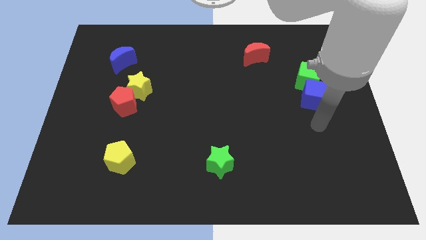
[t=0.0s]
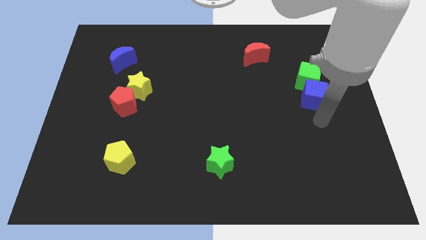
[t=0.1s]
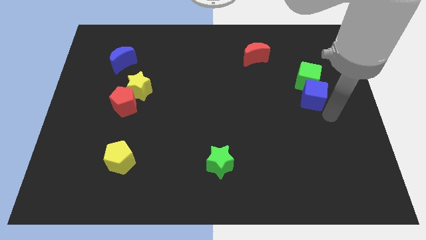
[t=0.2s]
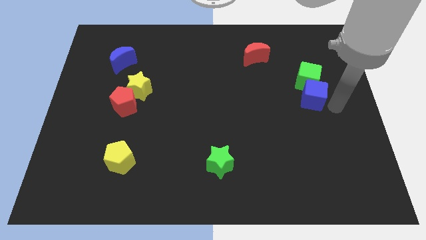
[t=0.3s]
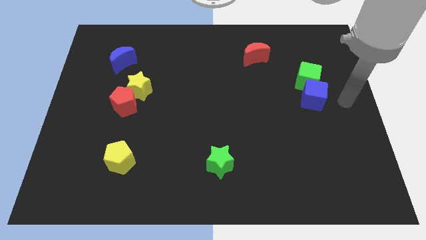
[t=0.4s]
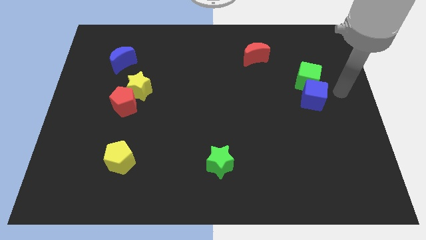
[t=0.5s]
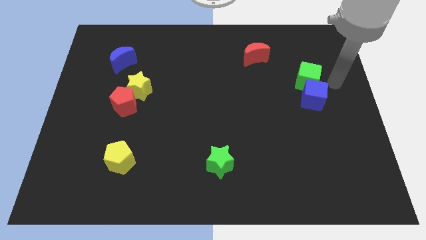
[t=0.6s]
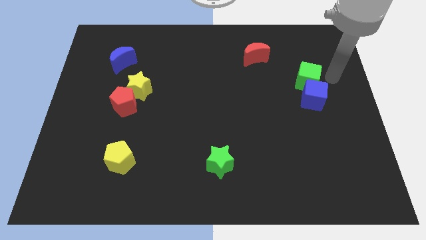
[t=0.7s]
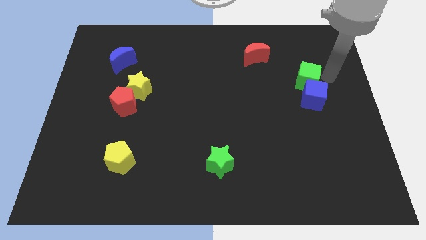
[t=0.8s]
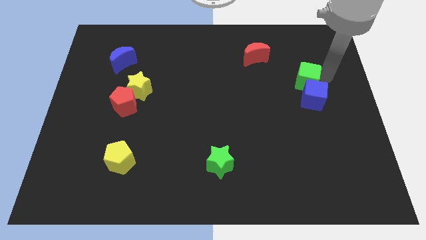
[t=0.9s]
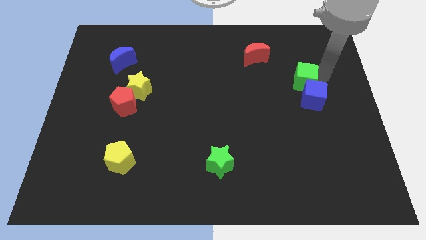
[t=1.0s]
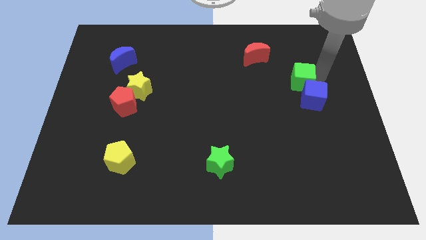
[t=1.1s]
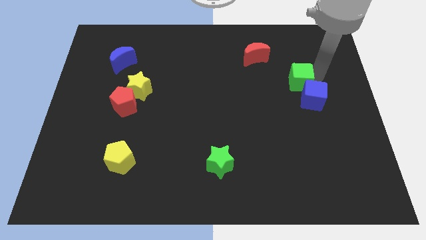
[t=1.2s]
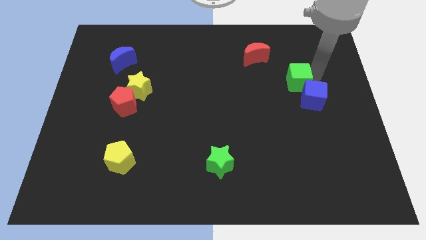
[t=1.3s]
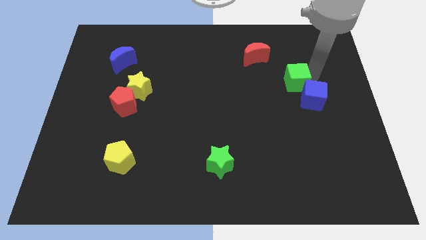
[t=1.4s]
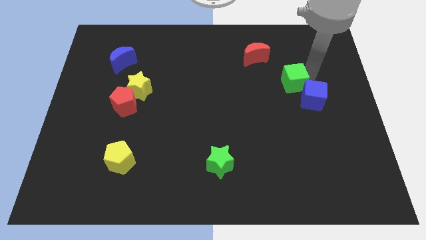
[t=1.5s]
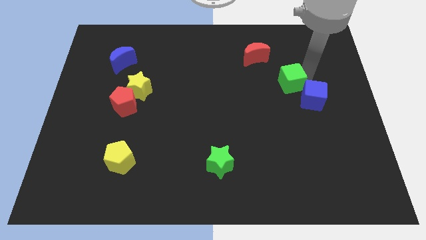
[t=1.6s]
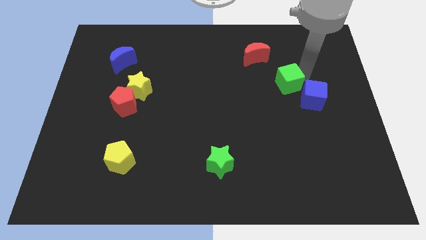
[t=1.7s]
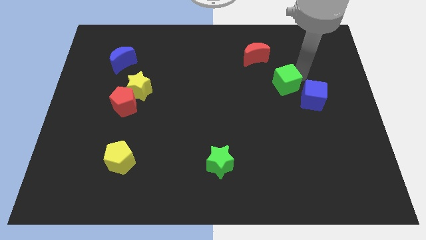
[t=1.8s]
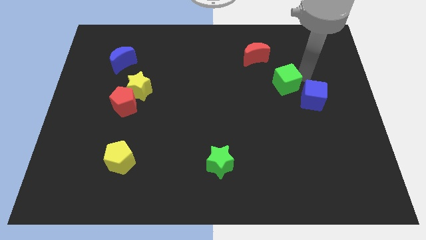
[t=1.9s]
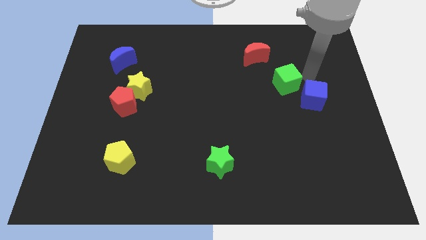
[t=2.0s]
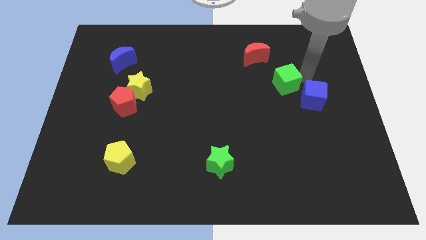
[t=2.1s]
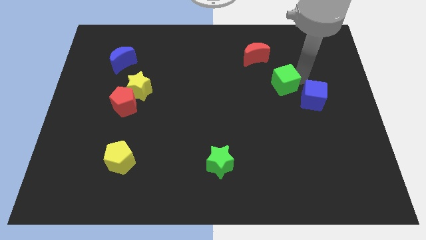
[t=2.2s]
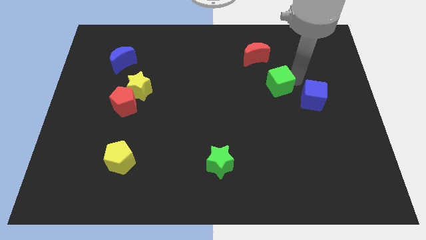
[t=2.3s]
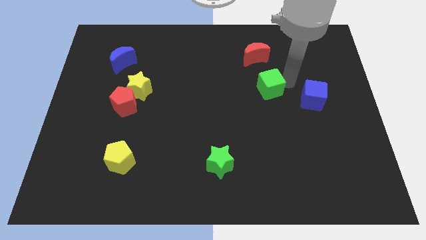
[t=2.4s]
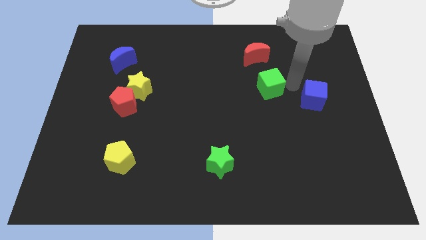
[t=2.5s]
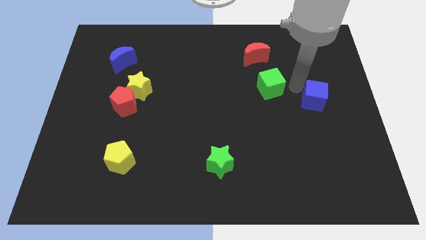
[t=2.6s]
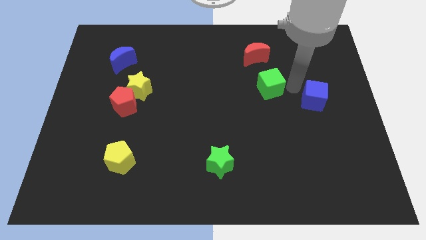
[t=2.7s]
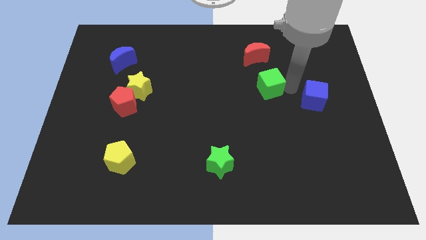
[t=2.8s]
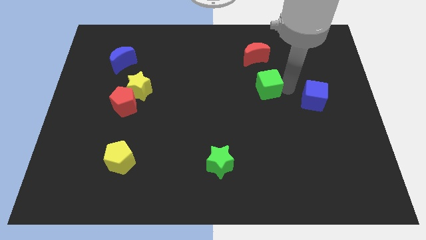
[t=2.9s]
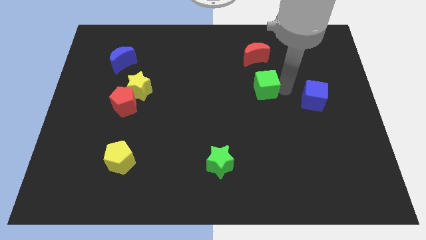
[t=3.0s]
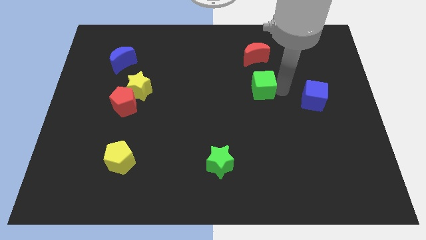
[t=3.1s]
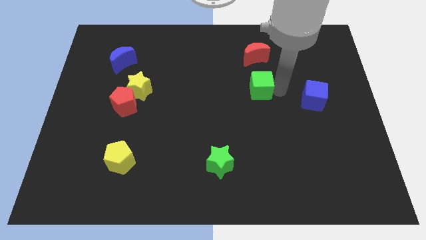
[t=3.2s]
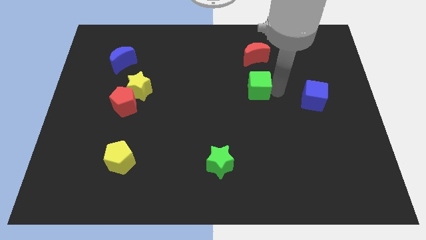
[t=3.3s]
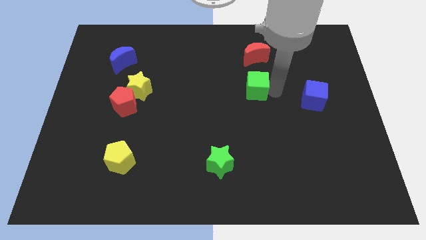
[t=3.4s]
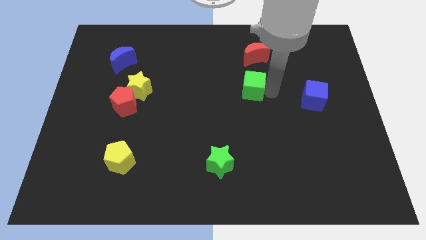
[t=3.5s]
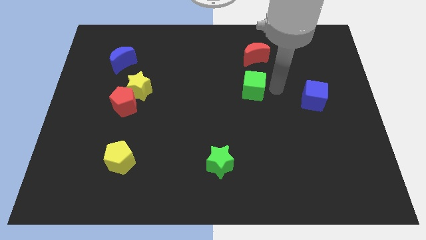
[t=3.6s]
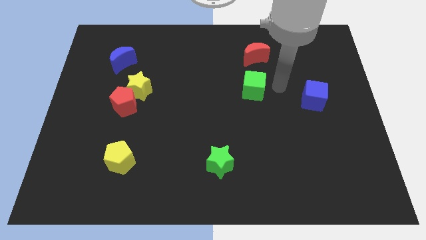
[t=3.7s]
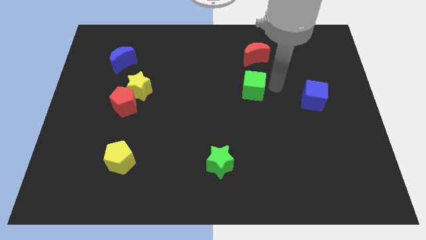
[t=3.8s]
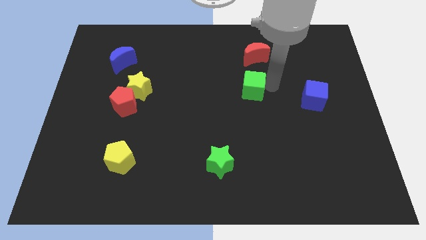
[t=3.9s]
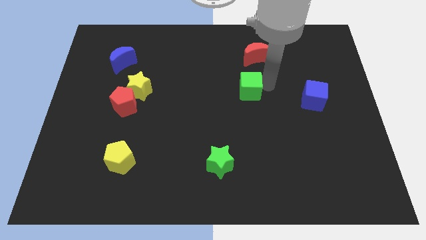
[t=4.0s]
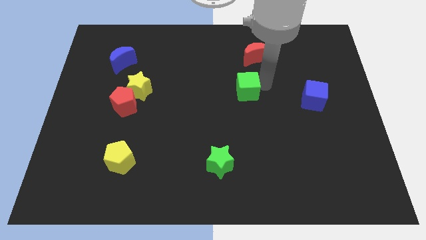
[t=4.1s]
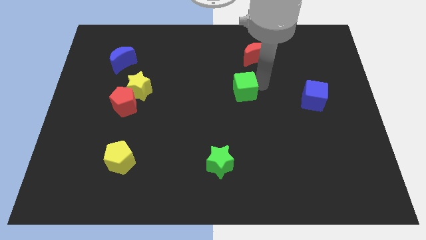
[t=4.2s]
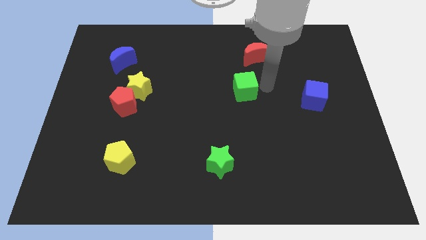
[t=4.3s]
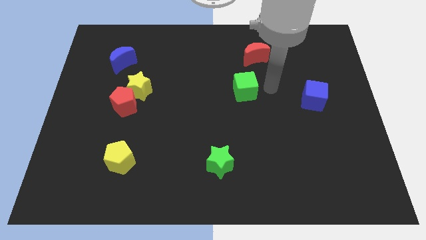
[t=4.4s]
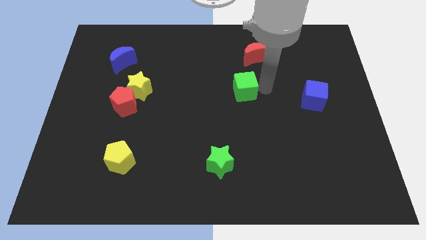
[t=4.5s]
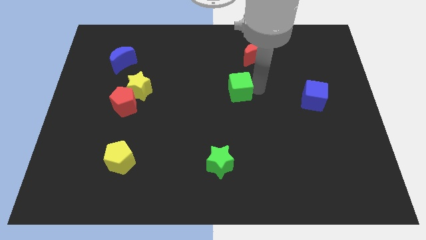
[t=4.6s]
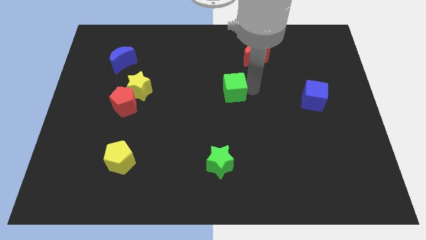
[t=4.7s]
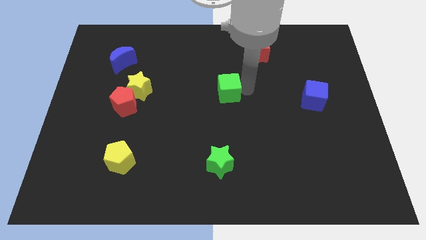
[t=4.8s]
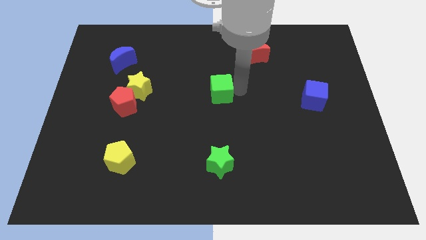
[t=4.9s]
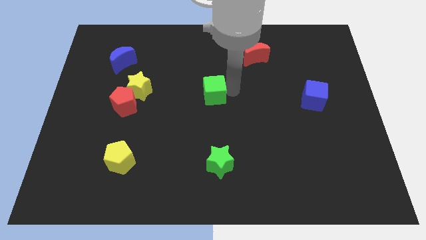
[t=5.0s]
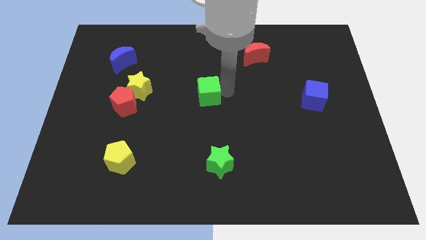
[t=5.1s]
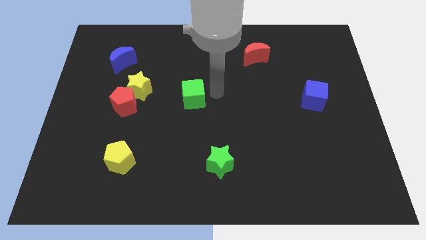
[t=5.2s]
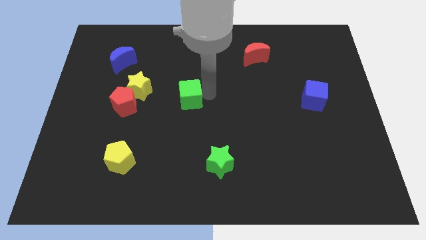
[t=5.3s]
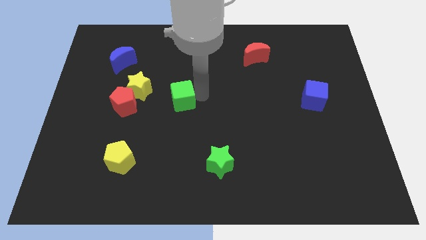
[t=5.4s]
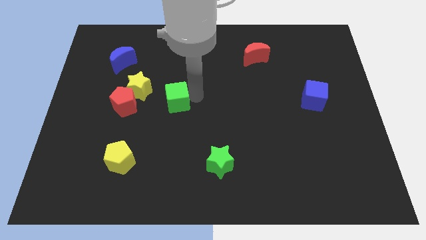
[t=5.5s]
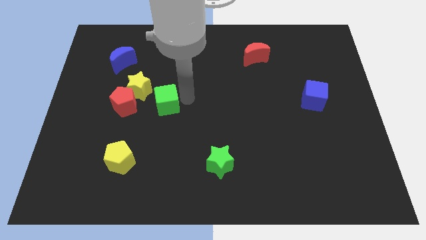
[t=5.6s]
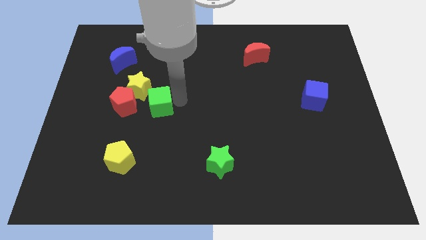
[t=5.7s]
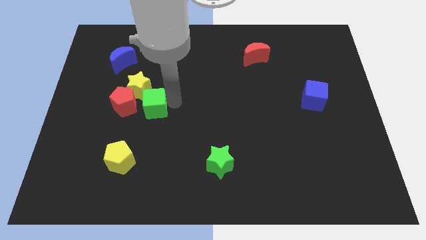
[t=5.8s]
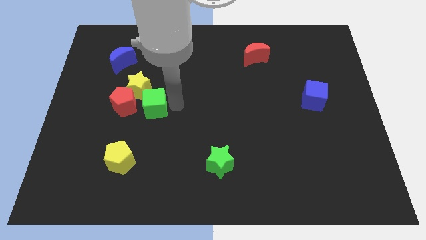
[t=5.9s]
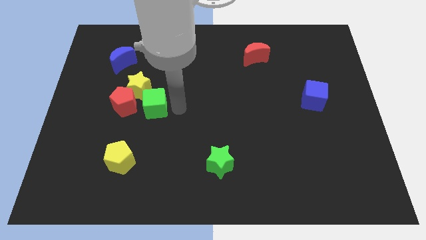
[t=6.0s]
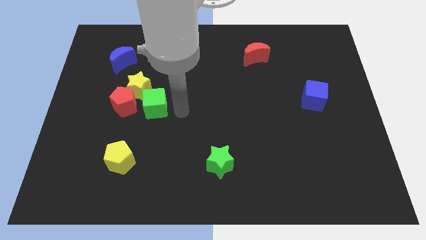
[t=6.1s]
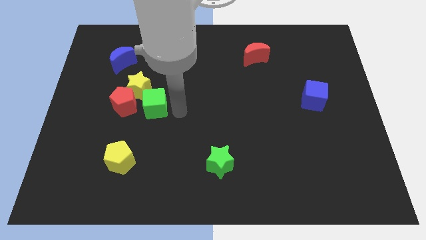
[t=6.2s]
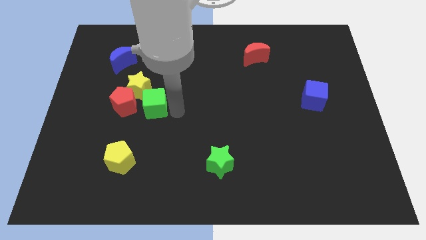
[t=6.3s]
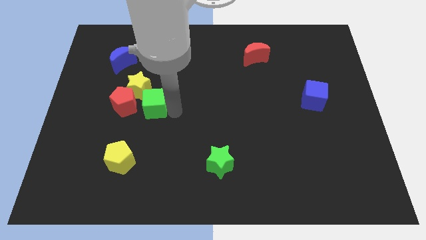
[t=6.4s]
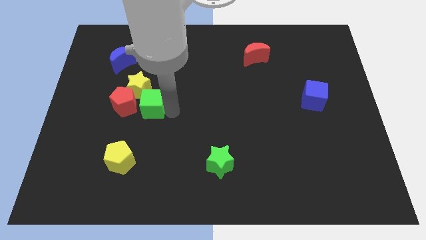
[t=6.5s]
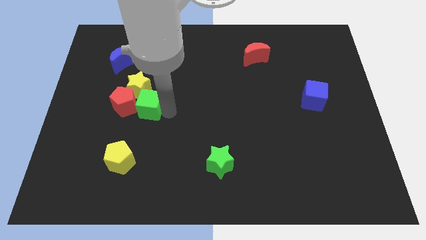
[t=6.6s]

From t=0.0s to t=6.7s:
push the green cube close to the red pentagon
